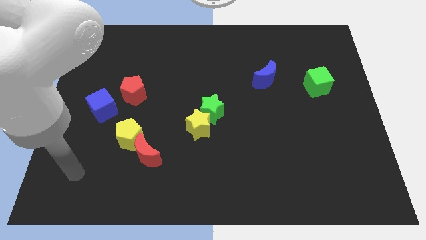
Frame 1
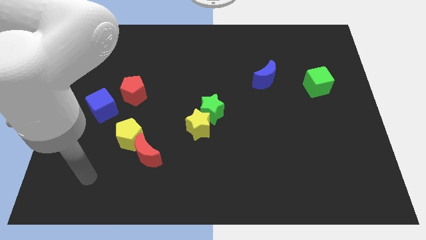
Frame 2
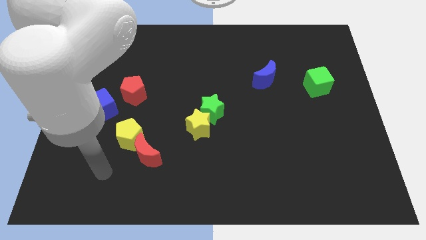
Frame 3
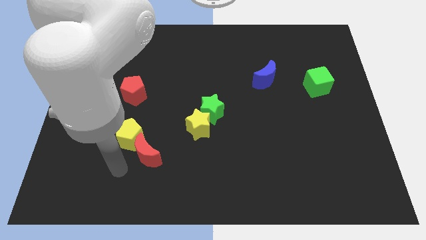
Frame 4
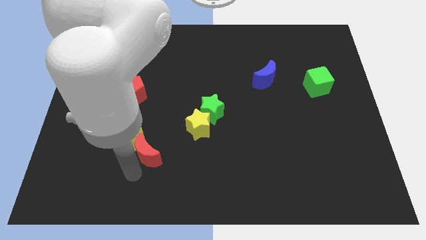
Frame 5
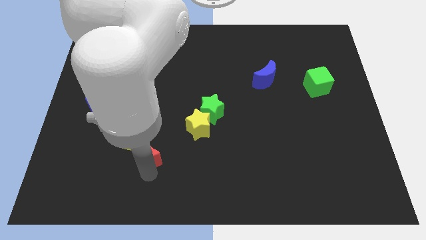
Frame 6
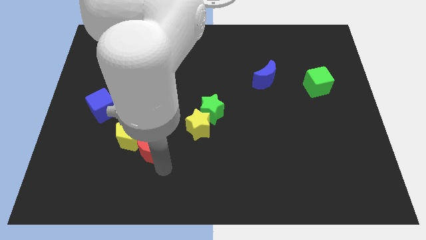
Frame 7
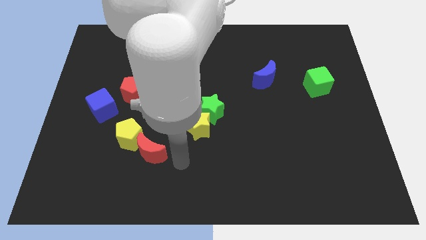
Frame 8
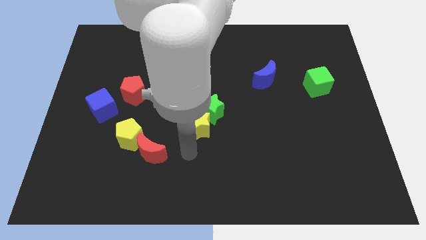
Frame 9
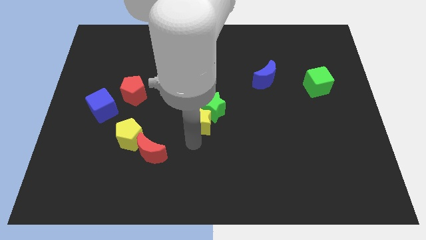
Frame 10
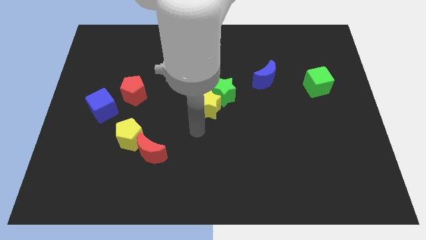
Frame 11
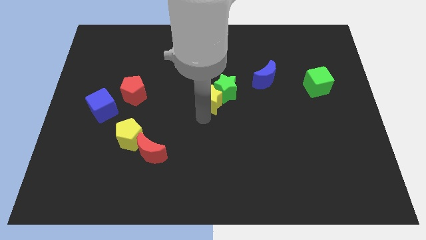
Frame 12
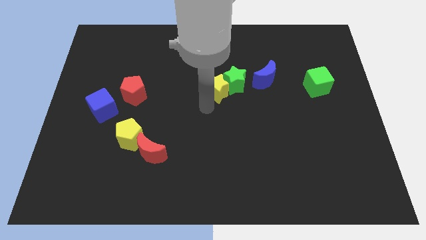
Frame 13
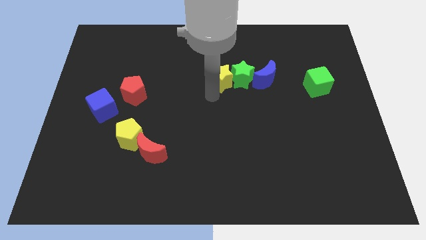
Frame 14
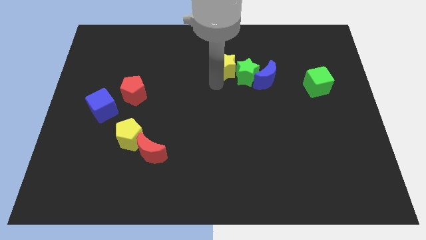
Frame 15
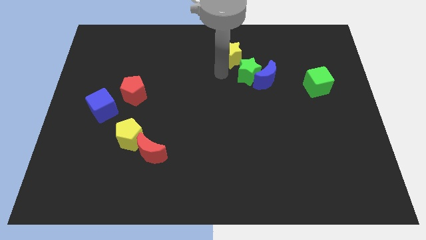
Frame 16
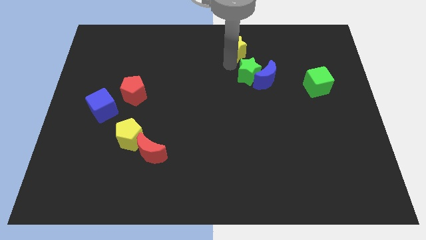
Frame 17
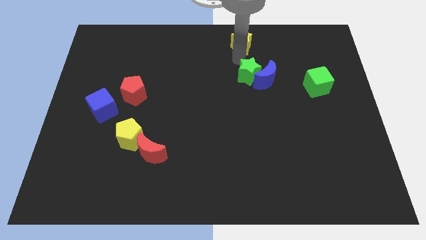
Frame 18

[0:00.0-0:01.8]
pull the green star apart from the yellow star

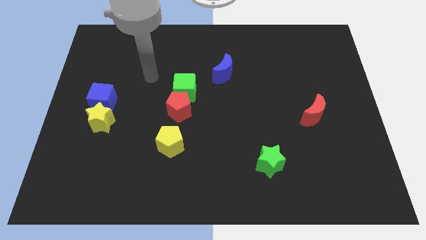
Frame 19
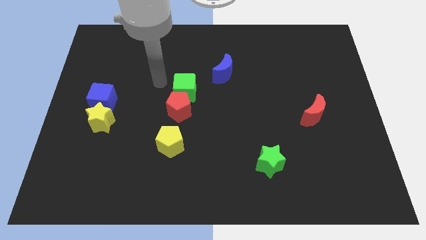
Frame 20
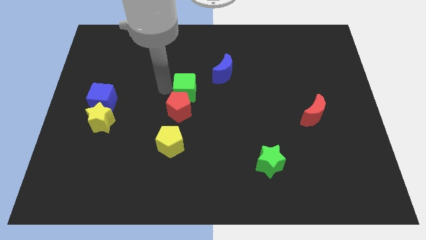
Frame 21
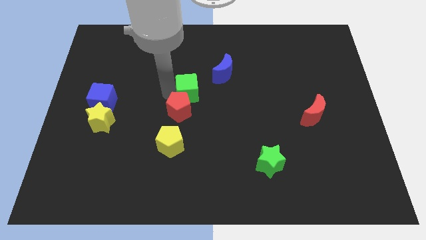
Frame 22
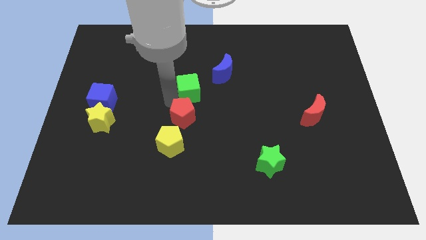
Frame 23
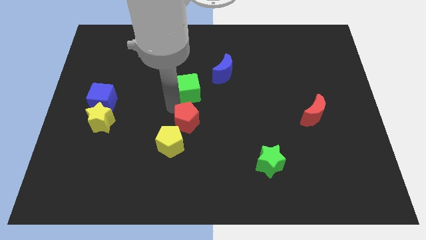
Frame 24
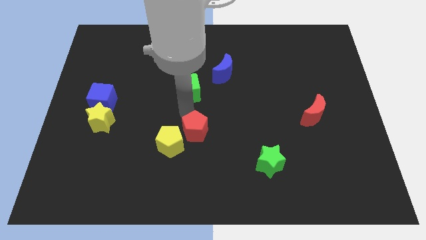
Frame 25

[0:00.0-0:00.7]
move the green cube away from the red pentagon

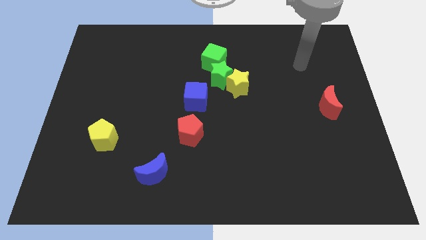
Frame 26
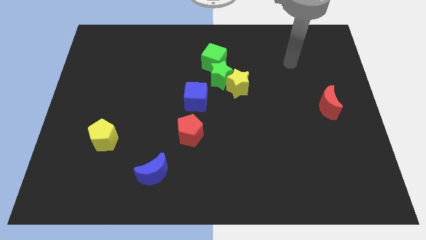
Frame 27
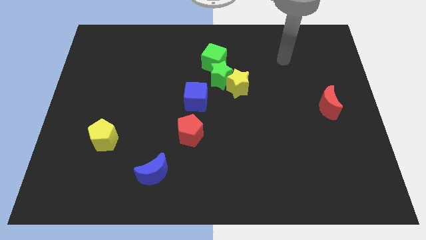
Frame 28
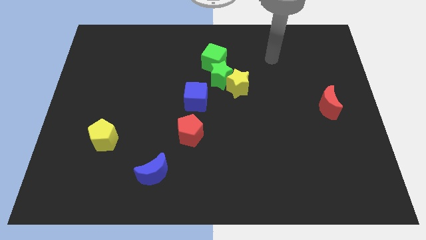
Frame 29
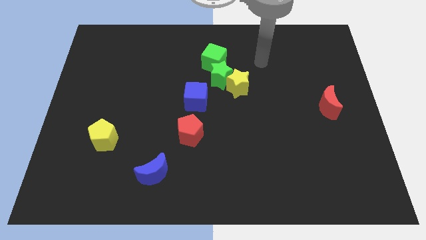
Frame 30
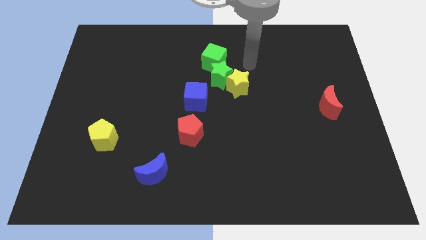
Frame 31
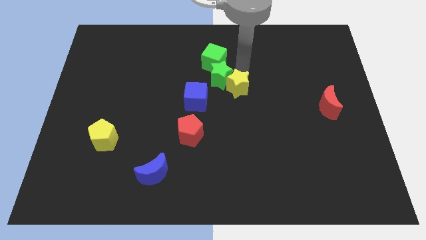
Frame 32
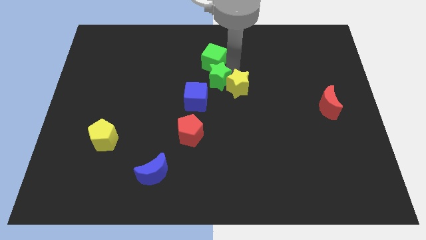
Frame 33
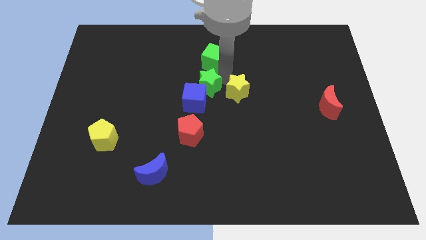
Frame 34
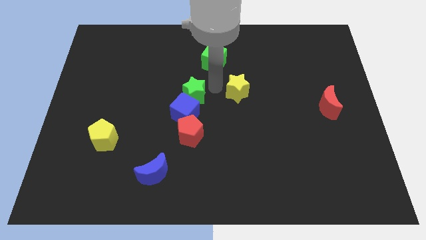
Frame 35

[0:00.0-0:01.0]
pull the yellow star apart from the green star

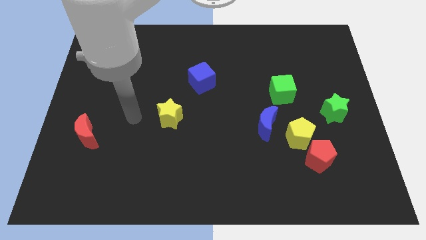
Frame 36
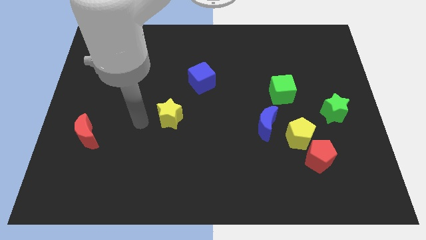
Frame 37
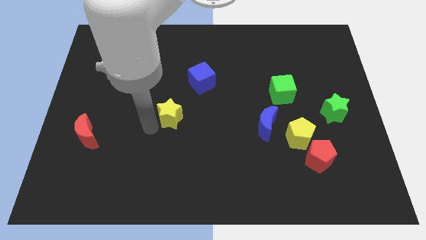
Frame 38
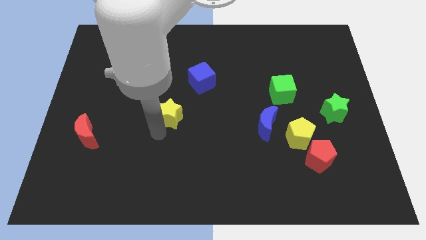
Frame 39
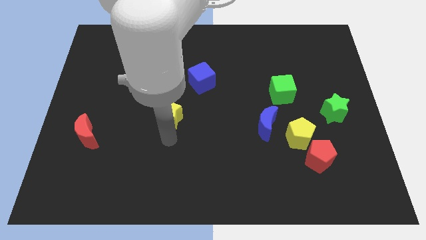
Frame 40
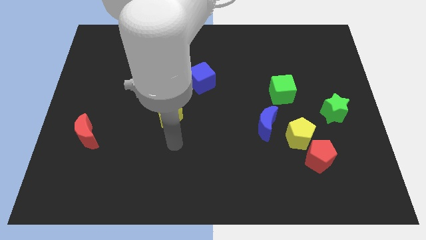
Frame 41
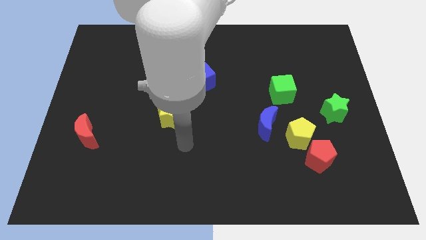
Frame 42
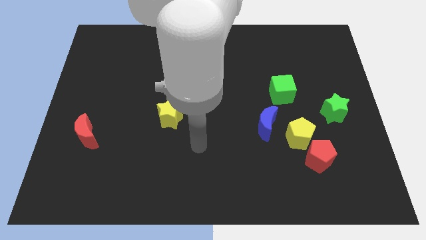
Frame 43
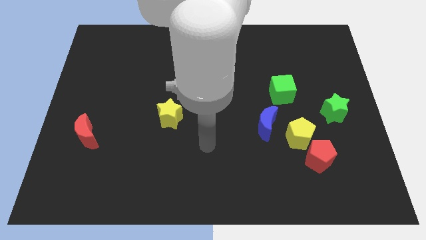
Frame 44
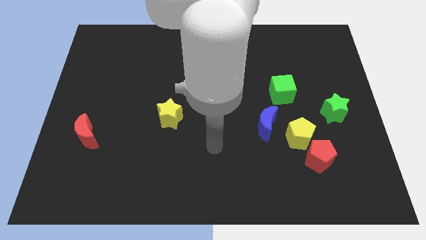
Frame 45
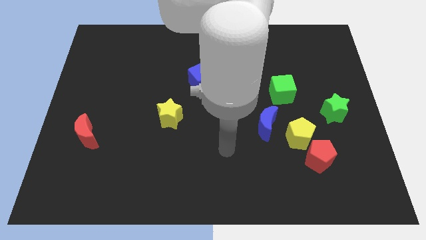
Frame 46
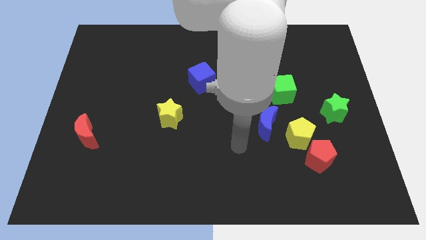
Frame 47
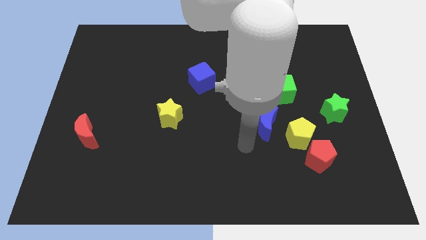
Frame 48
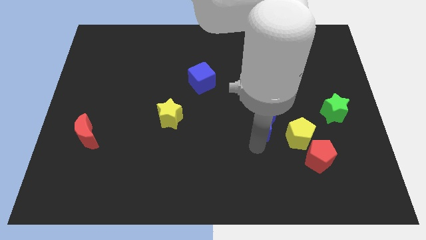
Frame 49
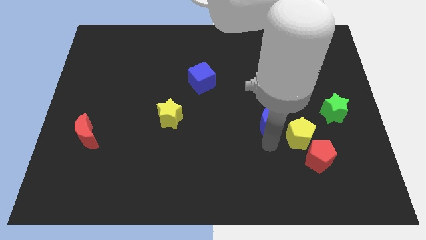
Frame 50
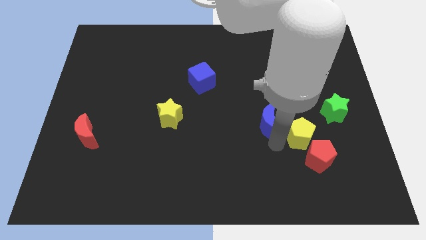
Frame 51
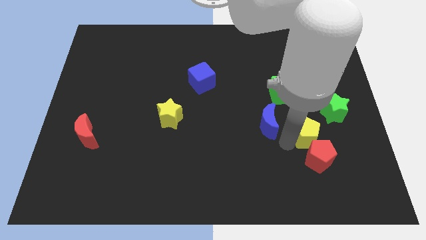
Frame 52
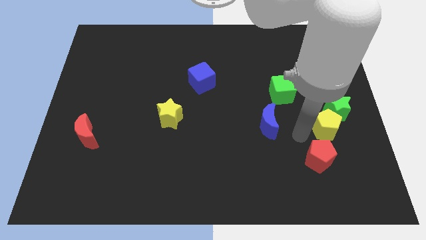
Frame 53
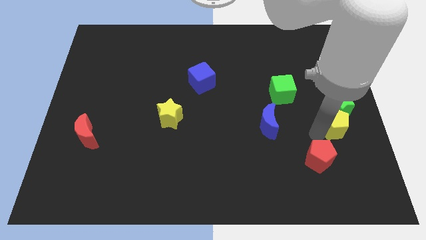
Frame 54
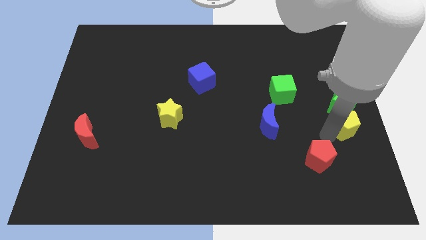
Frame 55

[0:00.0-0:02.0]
pull the red pentagon apart from the yellow pentagon

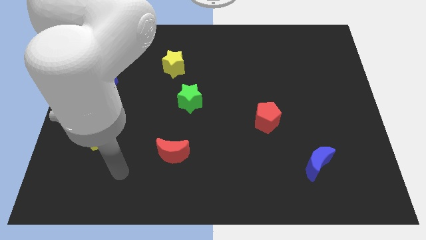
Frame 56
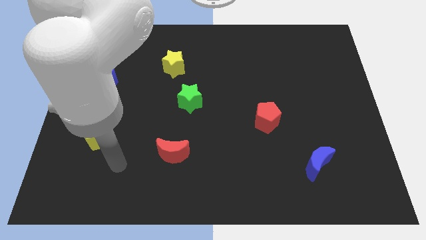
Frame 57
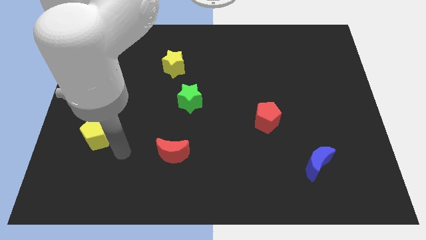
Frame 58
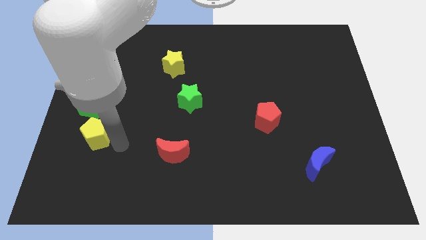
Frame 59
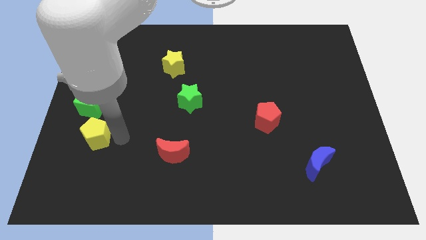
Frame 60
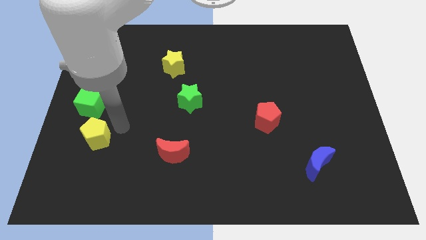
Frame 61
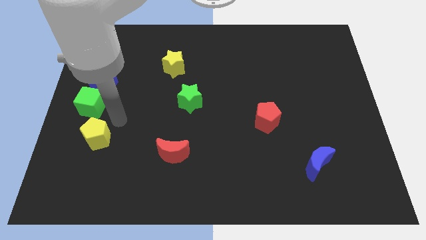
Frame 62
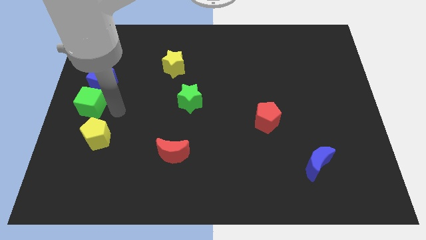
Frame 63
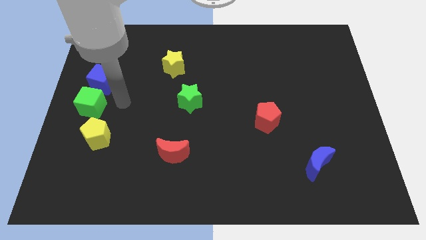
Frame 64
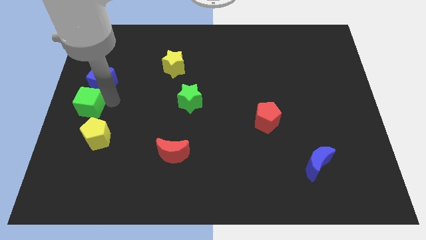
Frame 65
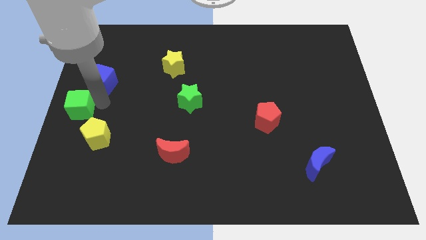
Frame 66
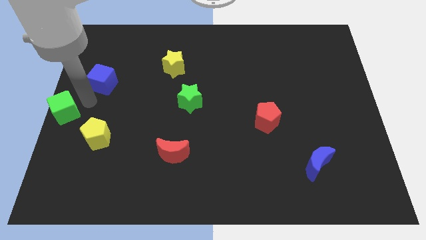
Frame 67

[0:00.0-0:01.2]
separate the blue cube from the green cube

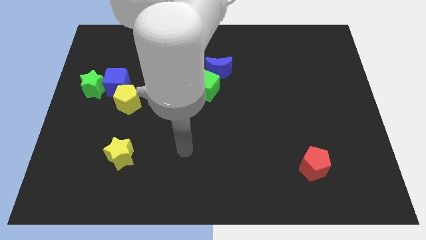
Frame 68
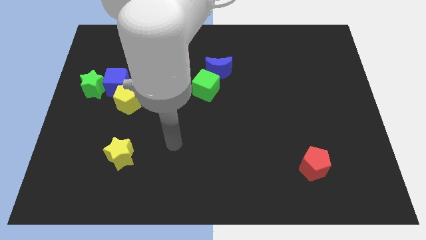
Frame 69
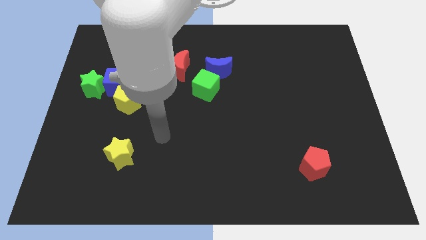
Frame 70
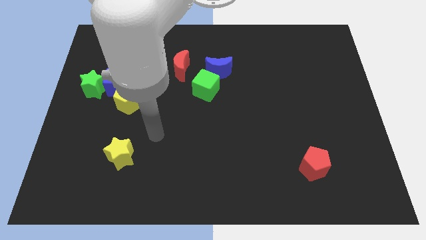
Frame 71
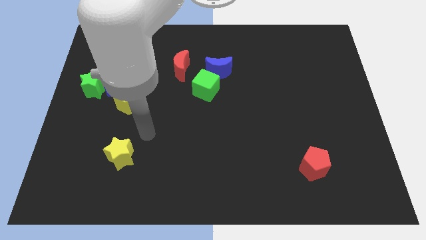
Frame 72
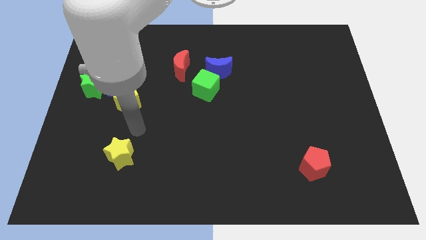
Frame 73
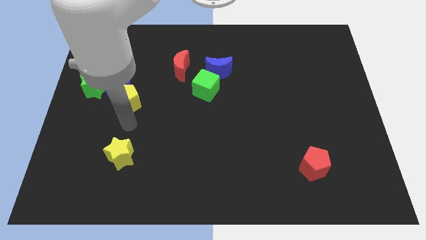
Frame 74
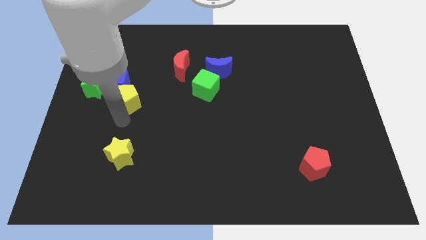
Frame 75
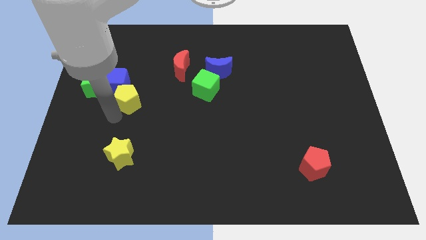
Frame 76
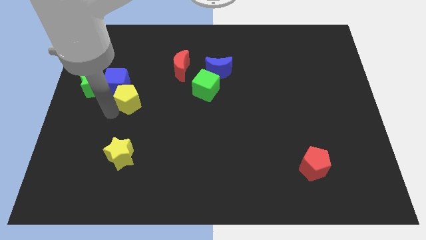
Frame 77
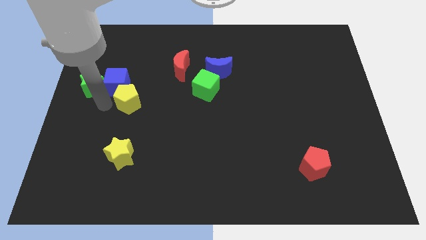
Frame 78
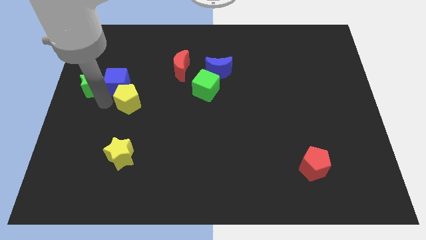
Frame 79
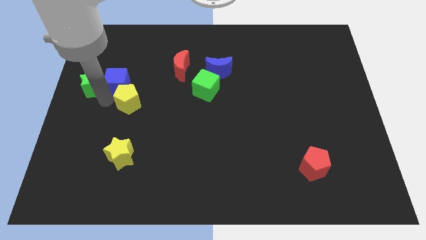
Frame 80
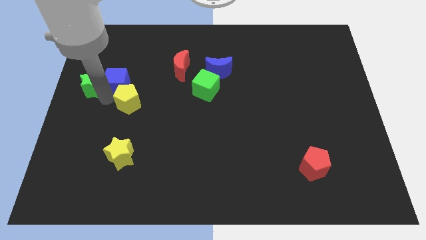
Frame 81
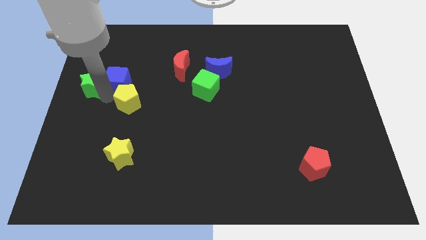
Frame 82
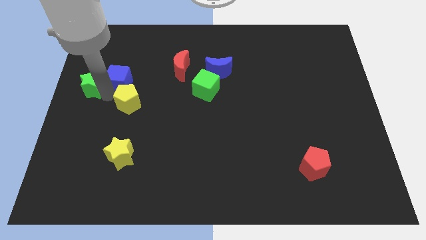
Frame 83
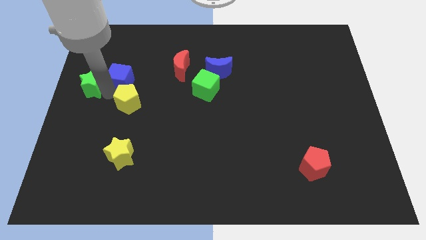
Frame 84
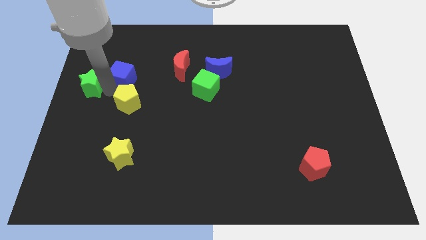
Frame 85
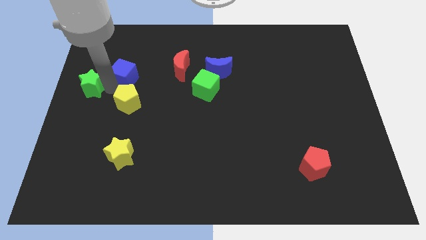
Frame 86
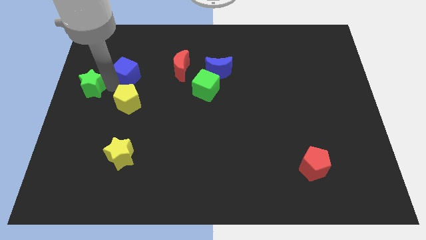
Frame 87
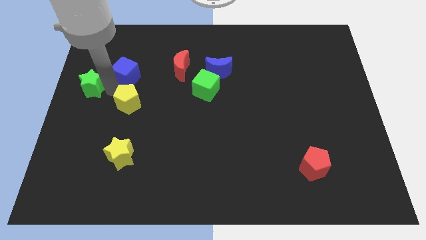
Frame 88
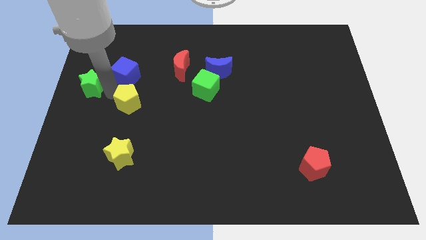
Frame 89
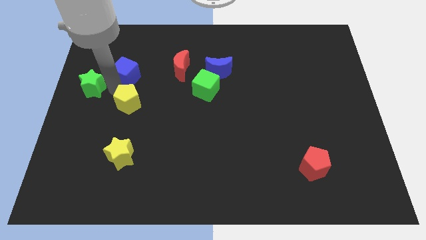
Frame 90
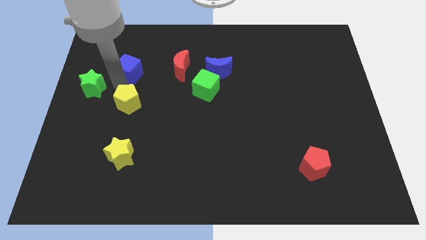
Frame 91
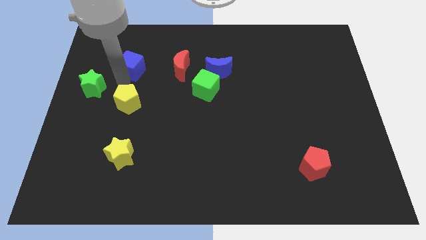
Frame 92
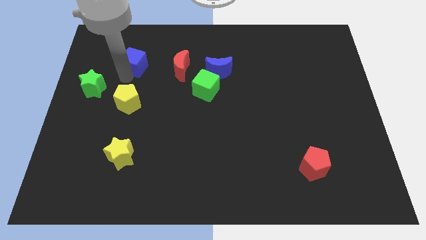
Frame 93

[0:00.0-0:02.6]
separate the blue cube from the green star and yellow pentagon
